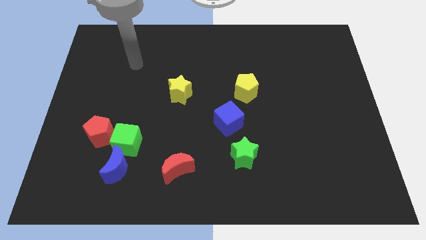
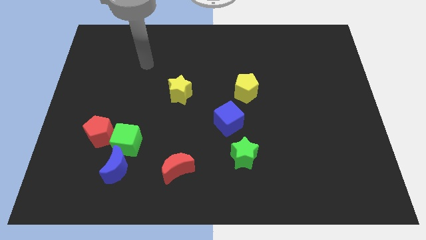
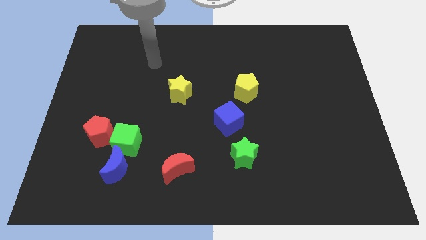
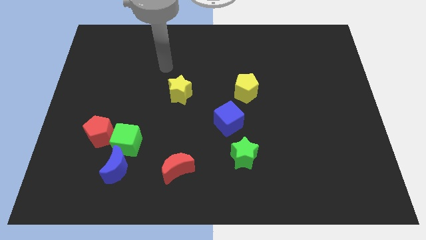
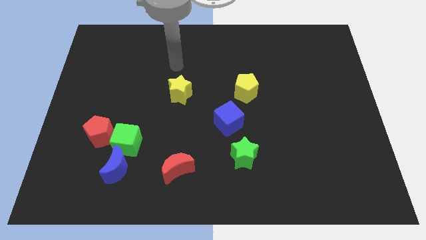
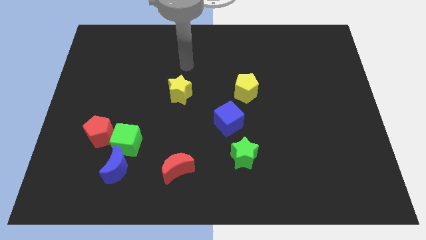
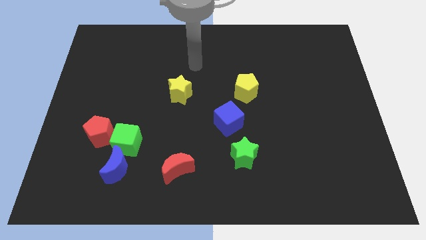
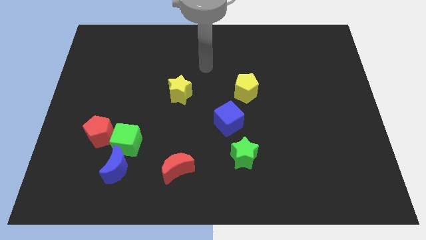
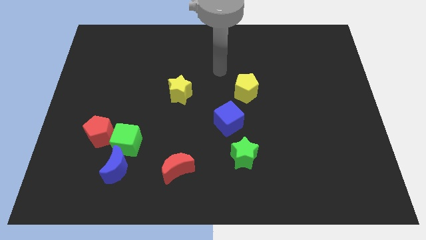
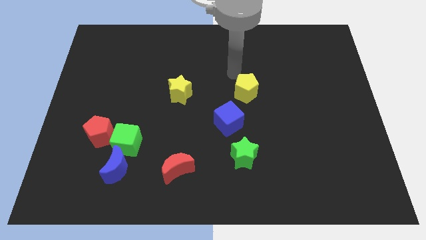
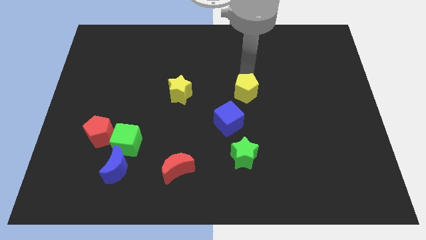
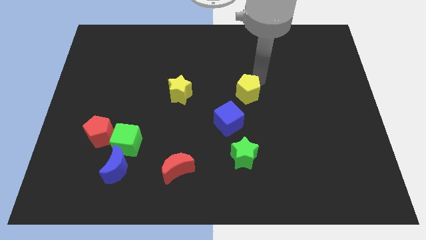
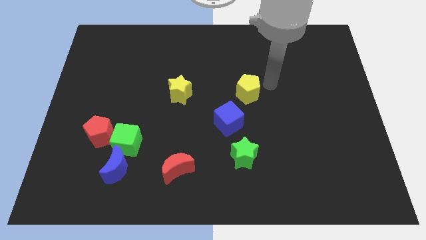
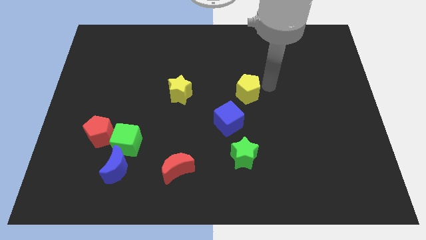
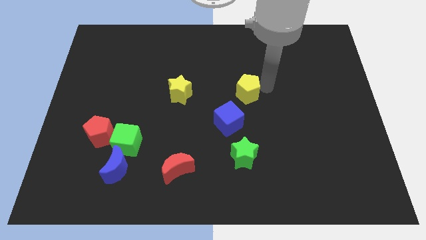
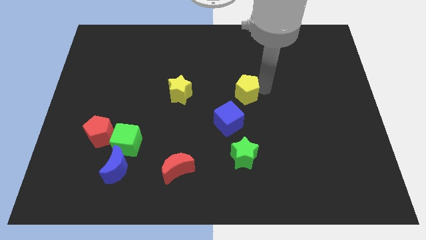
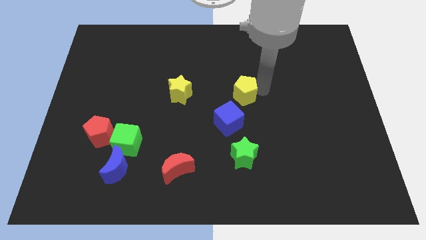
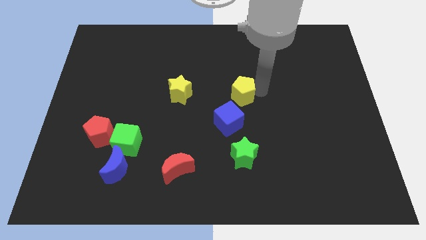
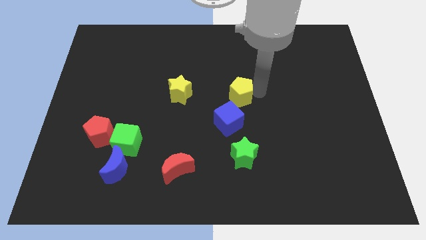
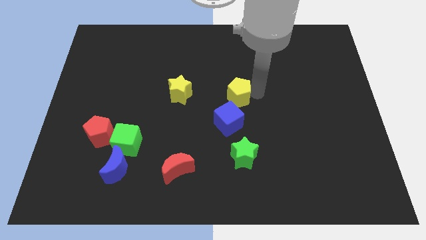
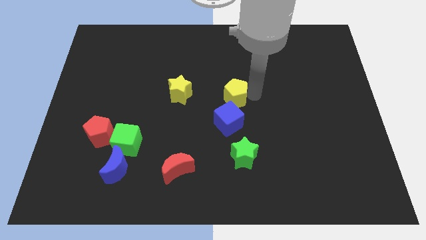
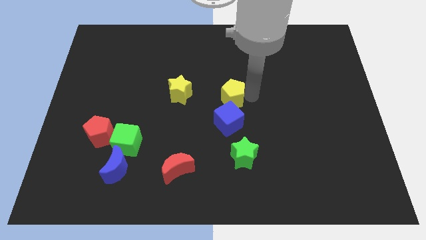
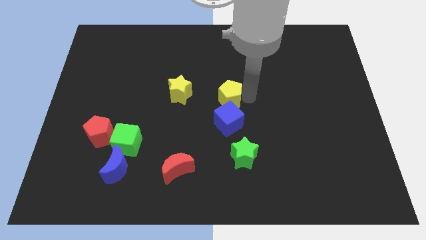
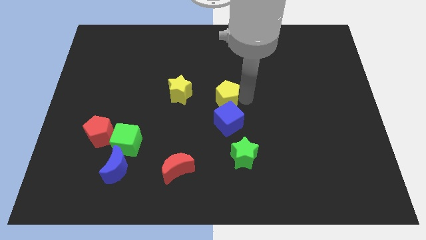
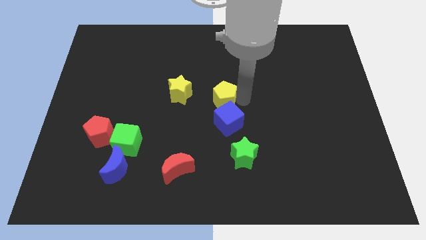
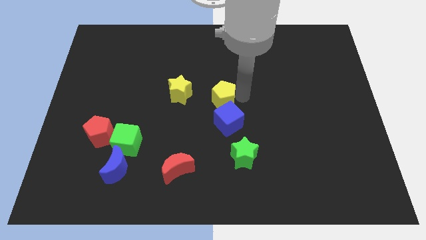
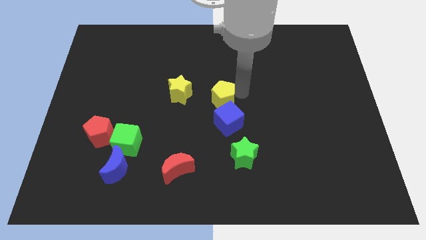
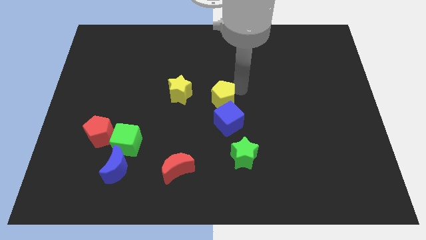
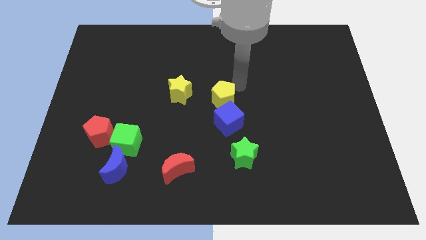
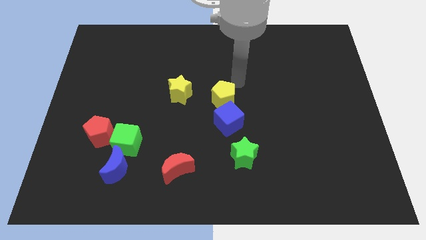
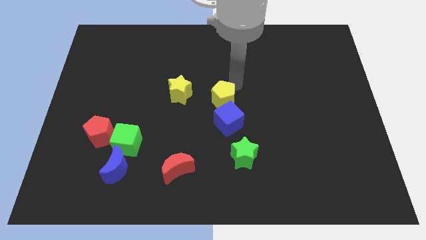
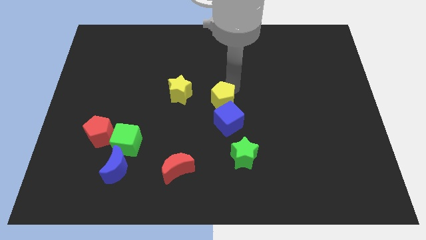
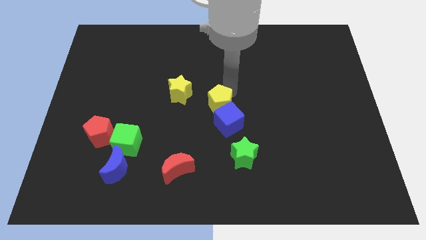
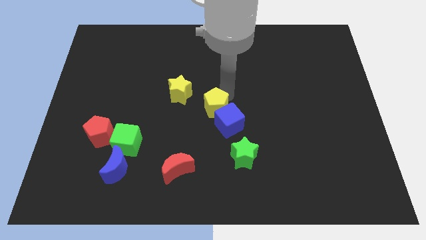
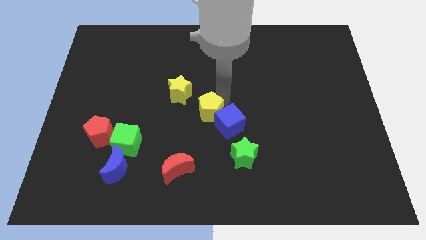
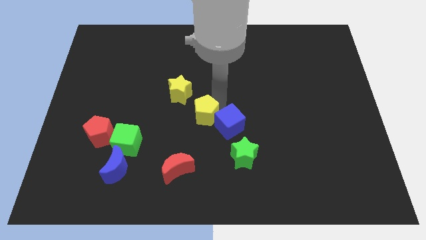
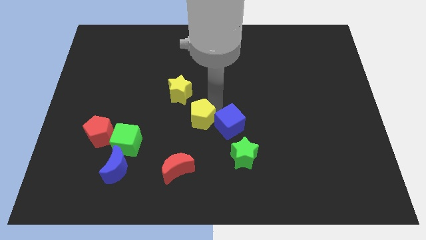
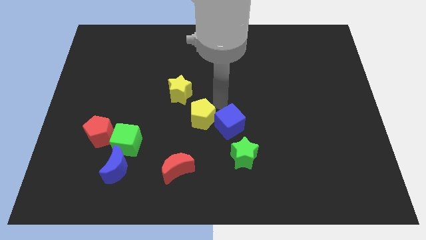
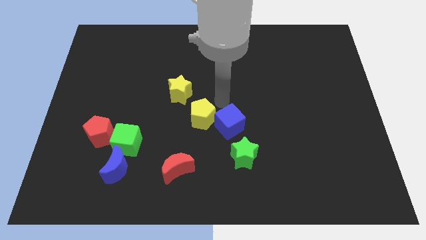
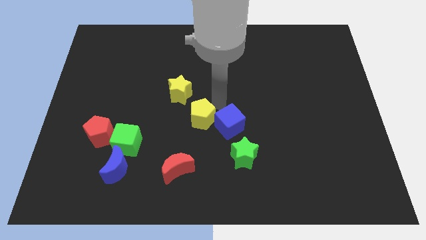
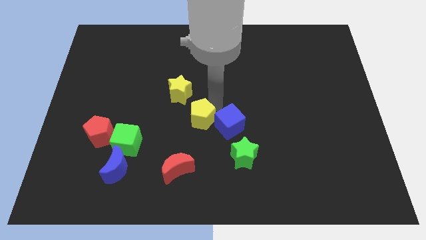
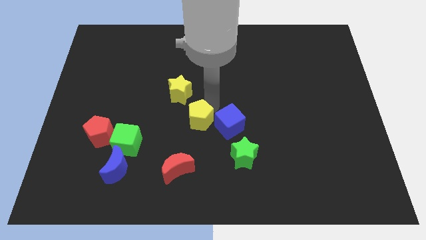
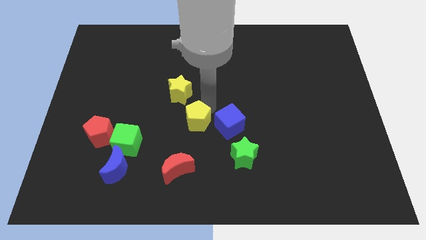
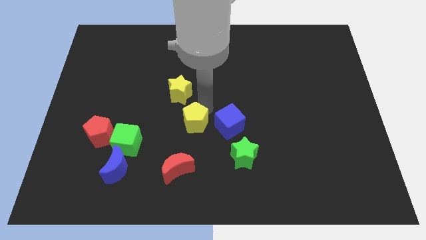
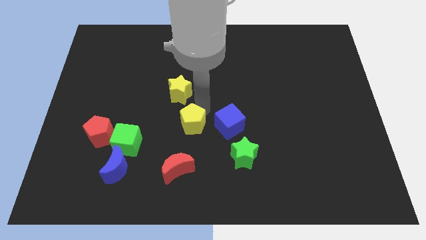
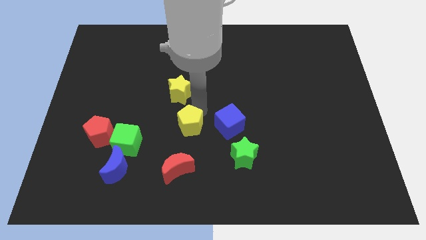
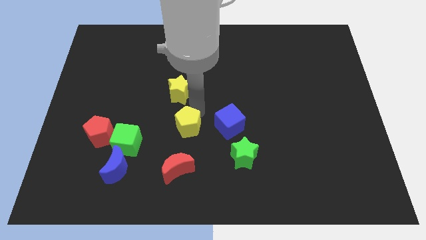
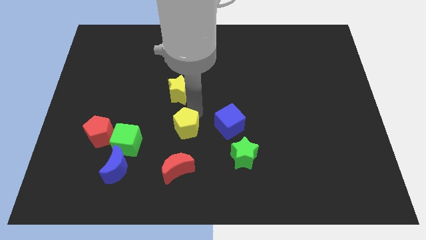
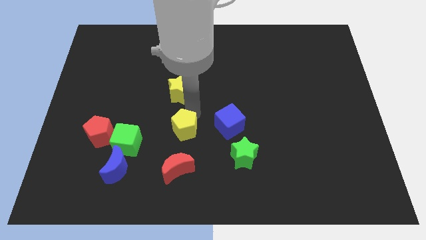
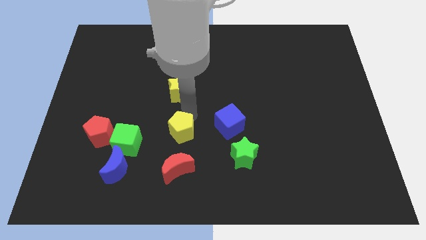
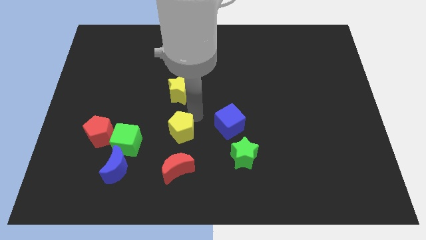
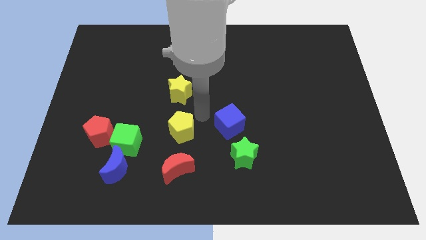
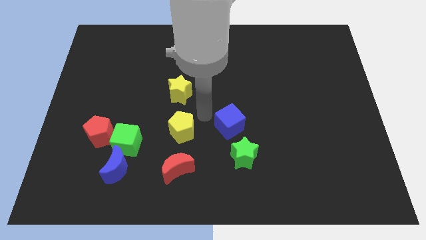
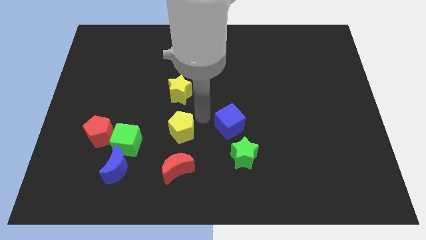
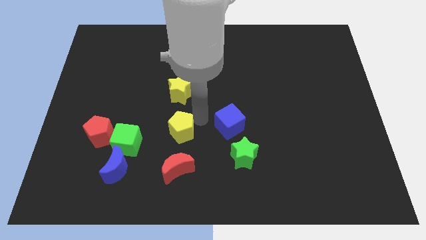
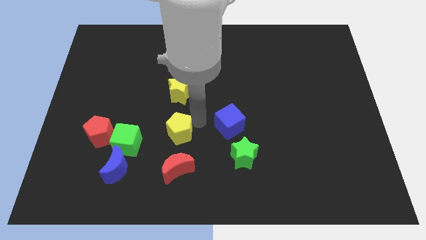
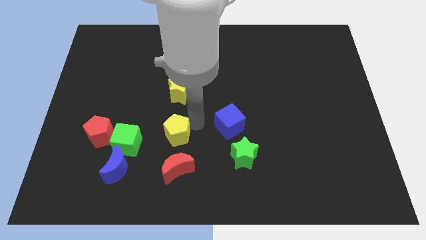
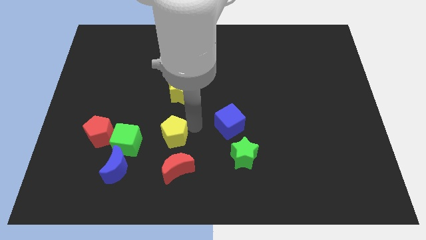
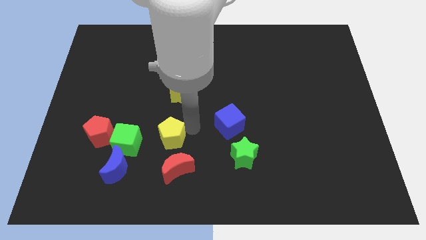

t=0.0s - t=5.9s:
slide the yellow pentagon to the top left side of the red moon

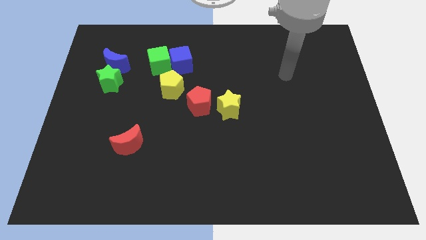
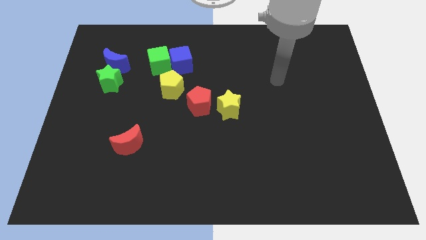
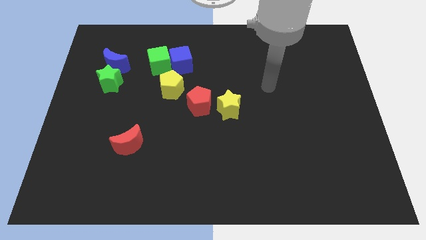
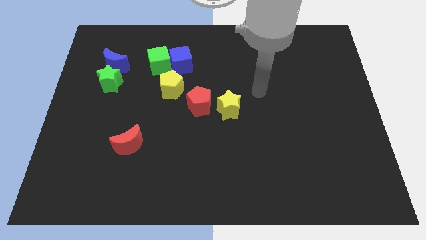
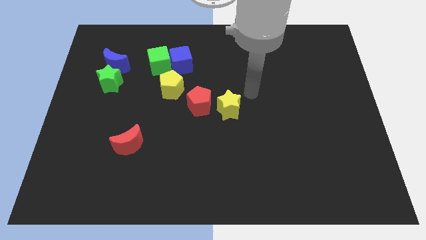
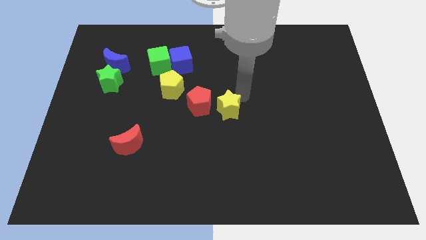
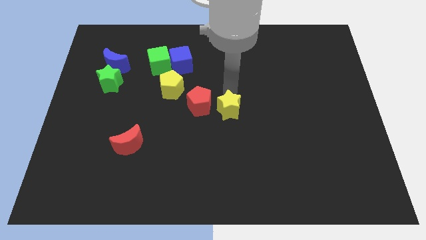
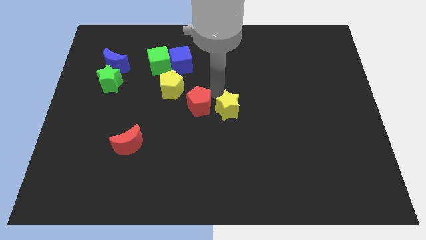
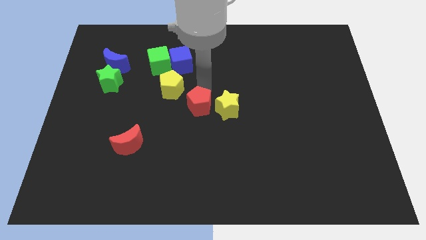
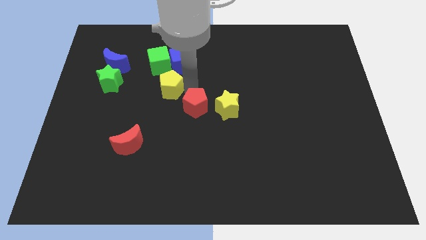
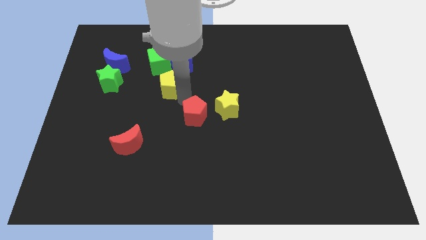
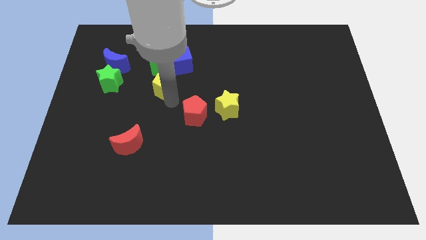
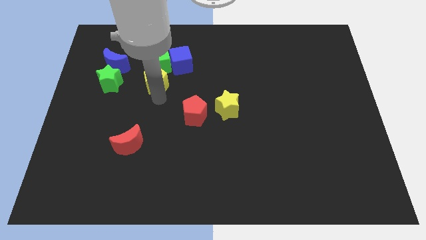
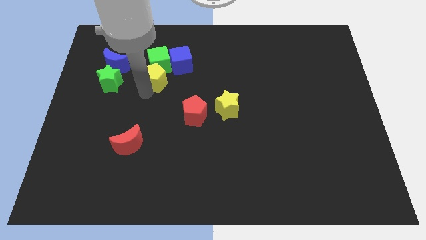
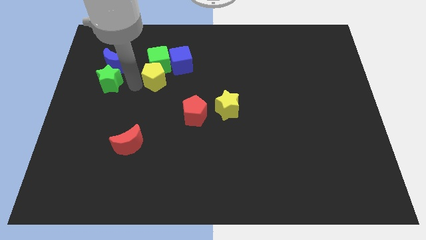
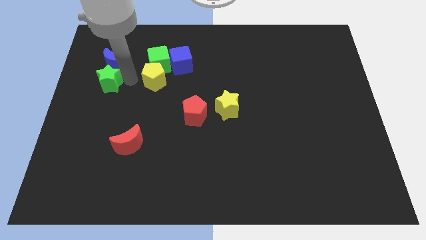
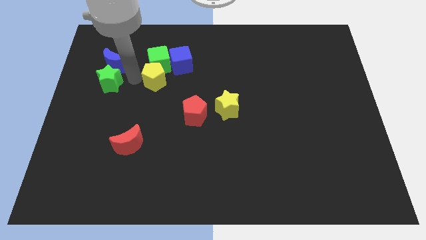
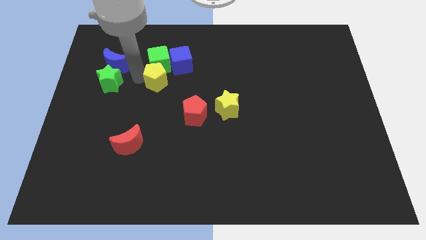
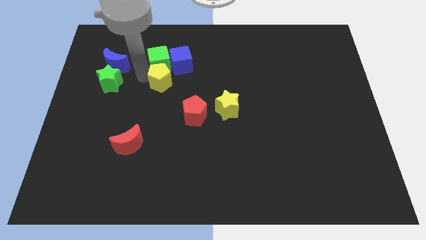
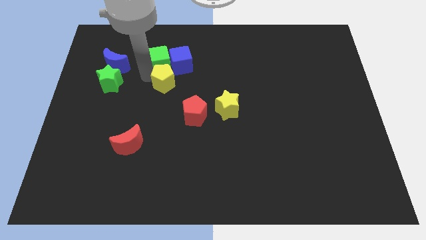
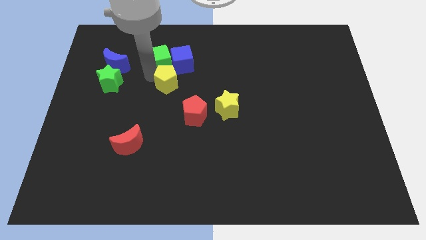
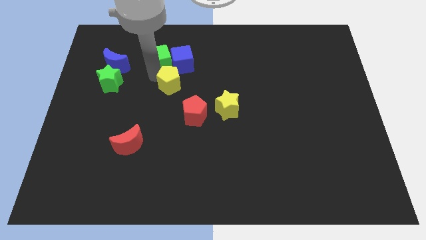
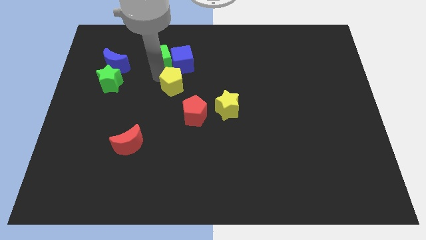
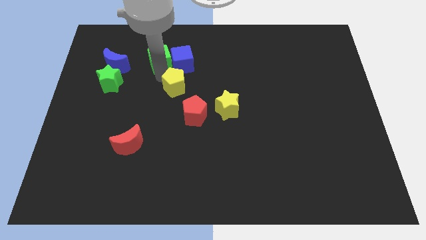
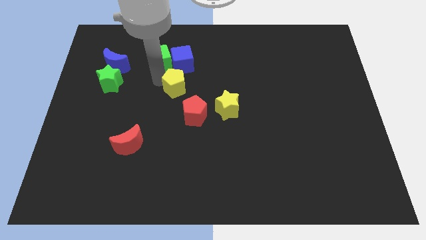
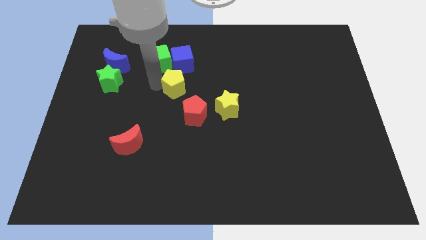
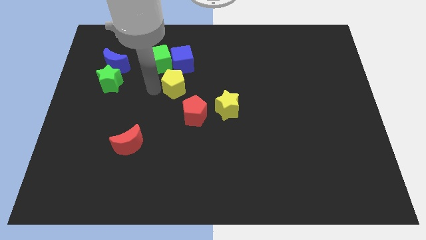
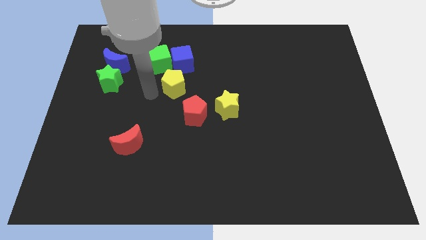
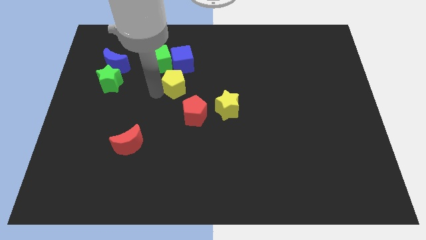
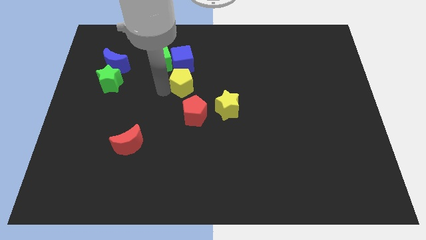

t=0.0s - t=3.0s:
slide the yellow pentagon diagonally down and to the right of the blue cube
